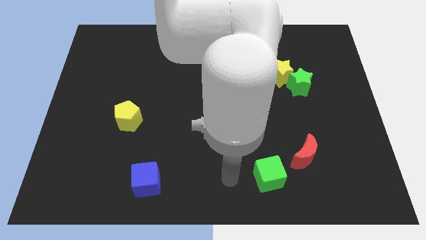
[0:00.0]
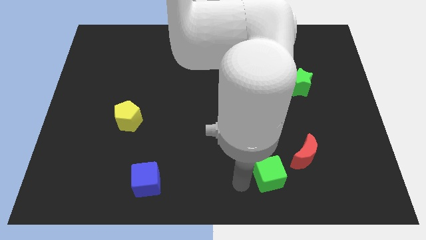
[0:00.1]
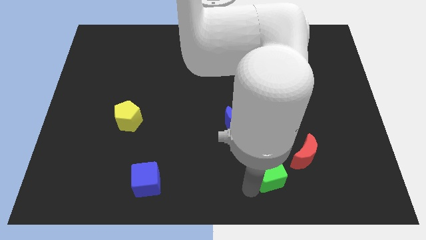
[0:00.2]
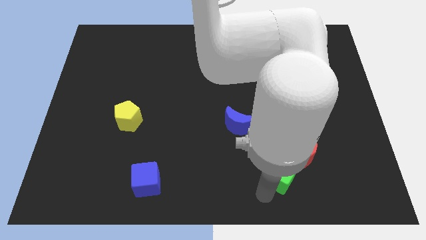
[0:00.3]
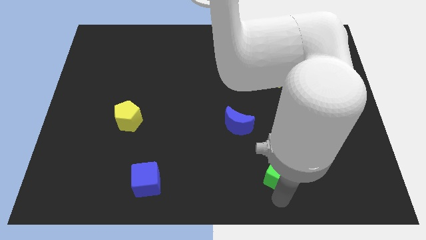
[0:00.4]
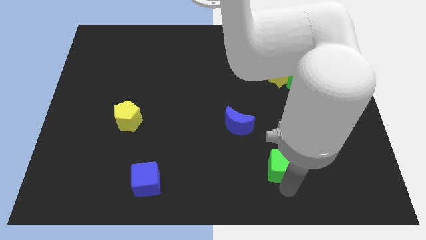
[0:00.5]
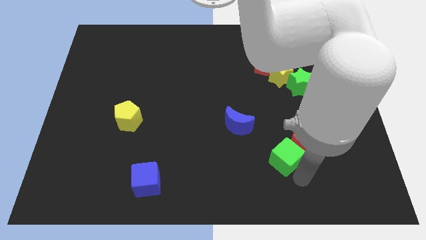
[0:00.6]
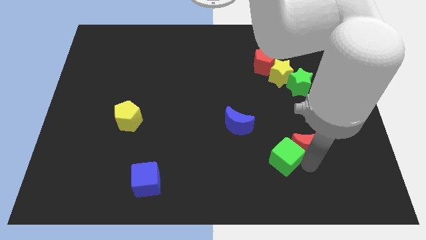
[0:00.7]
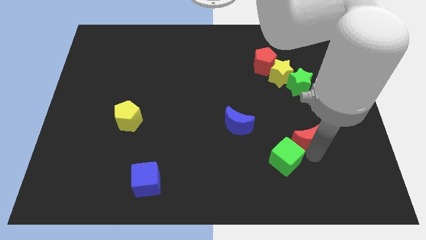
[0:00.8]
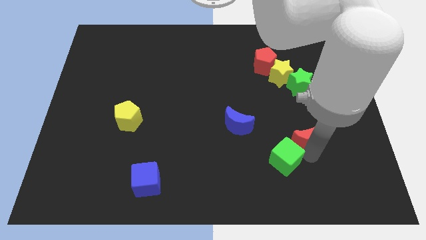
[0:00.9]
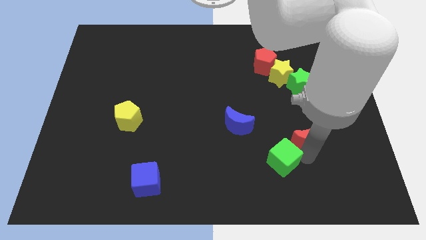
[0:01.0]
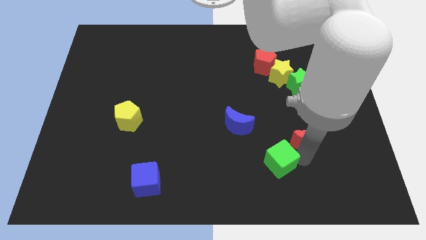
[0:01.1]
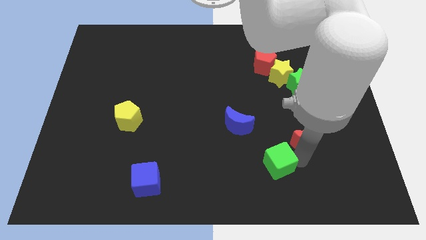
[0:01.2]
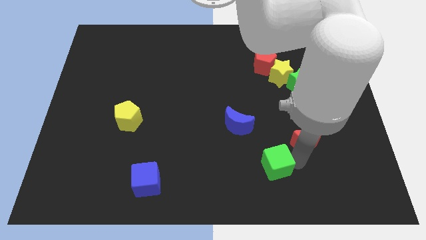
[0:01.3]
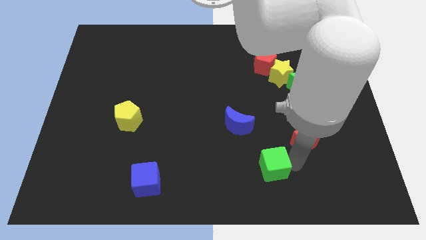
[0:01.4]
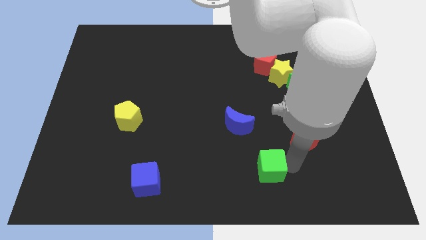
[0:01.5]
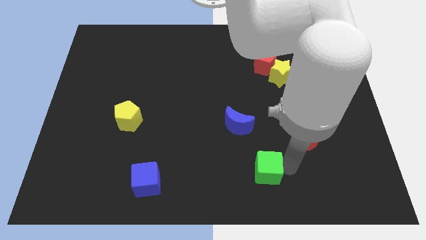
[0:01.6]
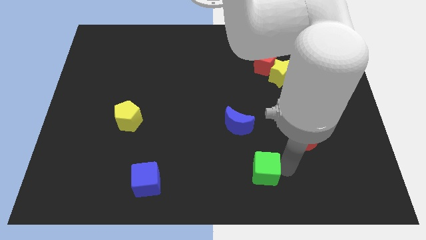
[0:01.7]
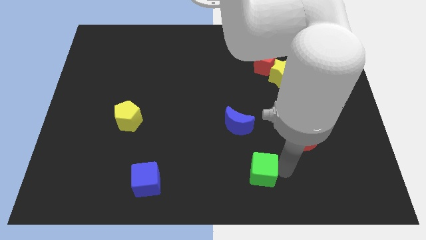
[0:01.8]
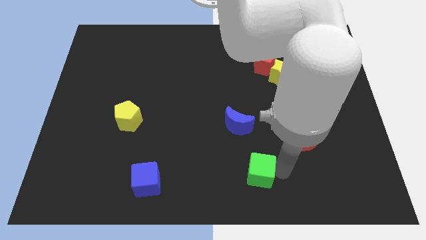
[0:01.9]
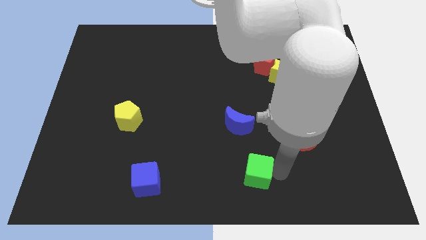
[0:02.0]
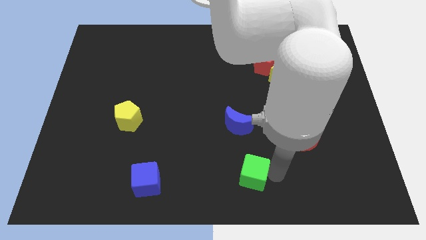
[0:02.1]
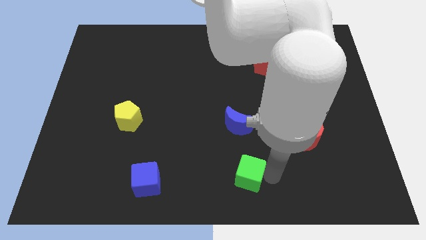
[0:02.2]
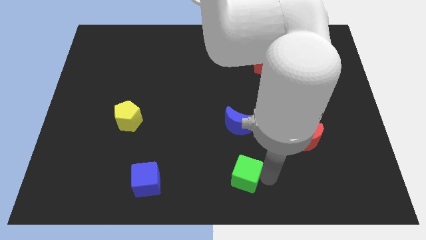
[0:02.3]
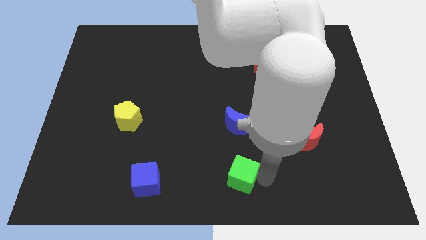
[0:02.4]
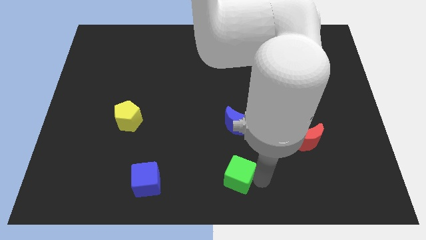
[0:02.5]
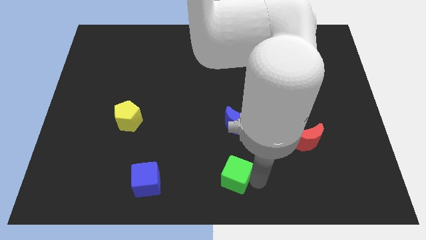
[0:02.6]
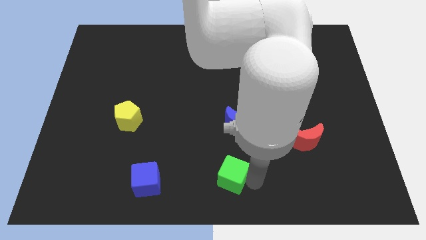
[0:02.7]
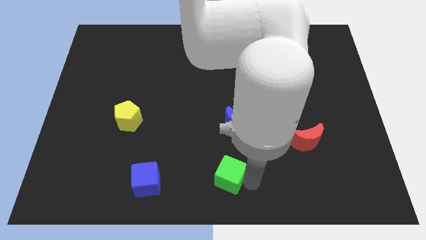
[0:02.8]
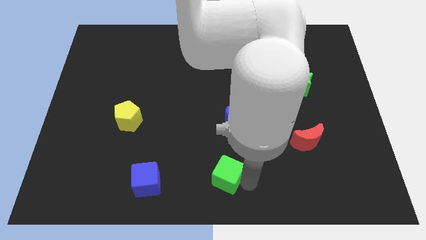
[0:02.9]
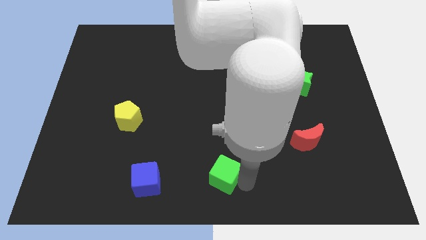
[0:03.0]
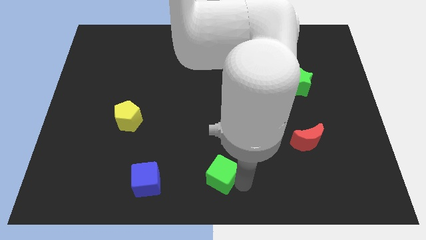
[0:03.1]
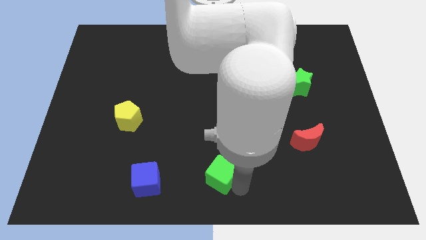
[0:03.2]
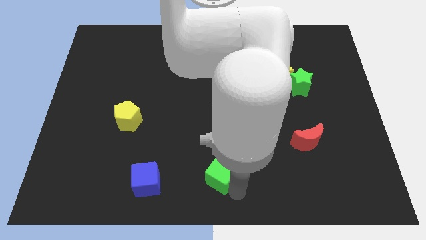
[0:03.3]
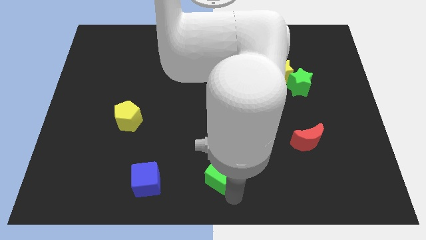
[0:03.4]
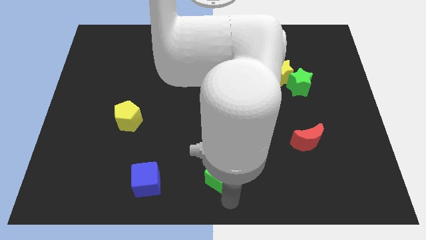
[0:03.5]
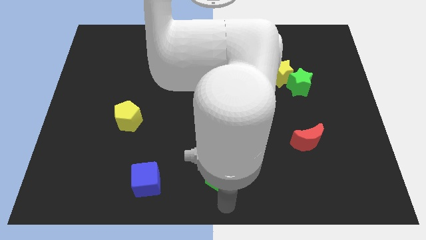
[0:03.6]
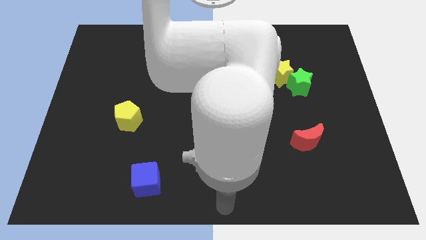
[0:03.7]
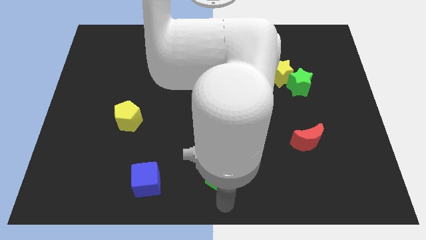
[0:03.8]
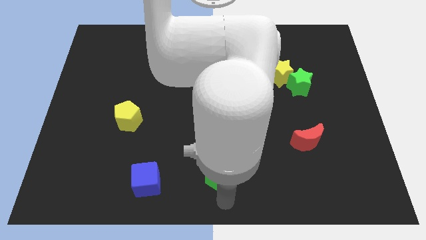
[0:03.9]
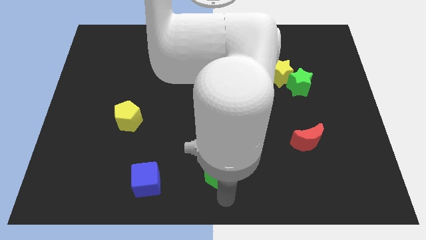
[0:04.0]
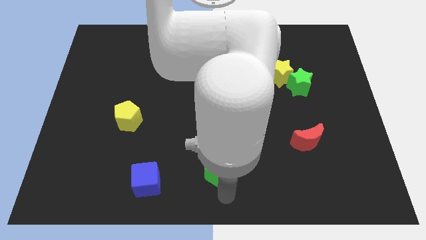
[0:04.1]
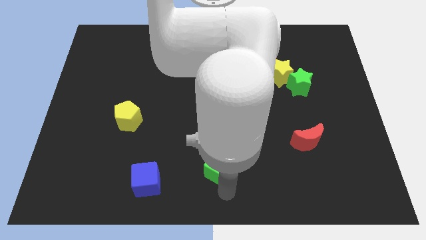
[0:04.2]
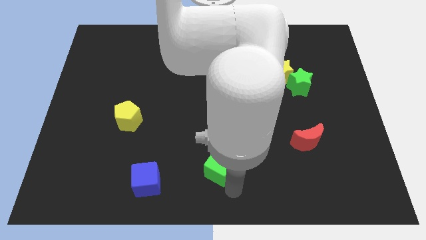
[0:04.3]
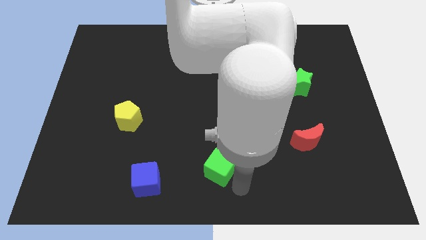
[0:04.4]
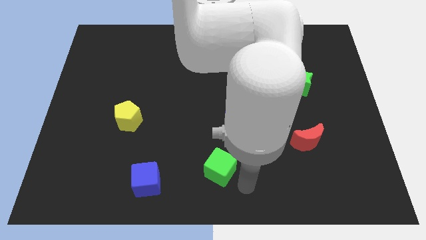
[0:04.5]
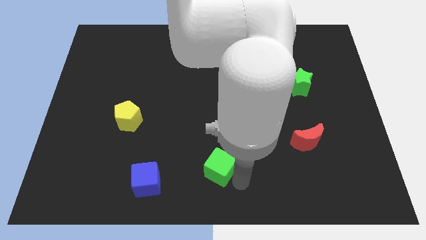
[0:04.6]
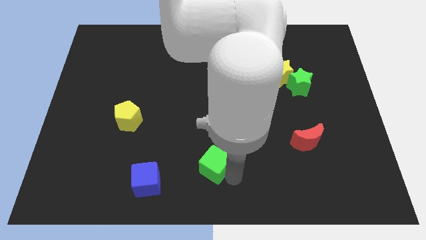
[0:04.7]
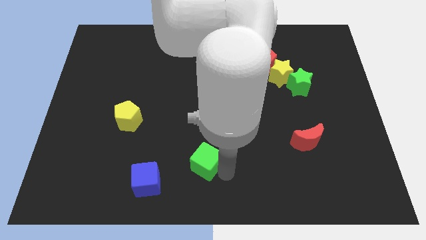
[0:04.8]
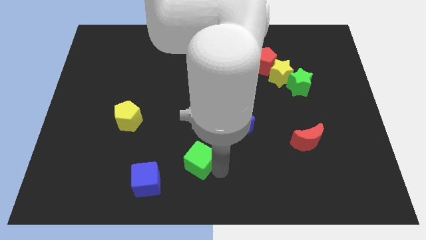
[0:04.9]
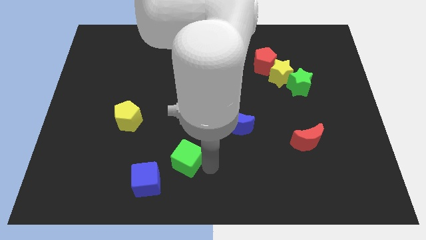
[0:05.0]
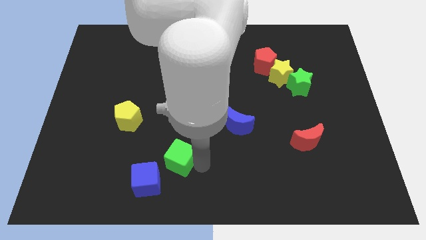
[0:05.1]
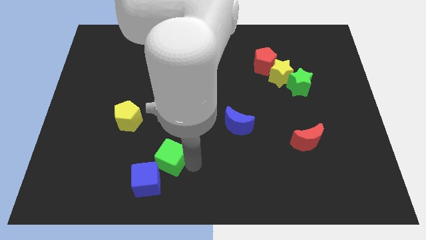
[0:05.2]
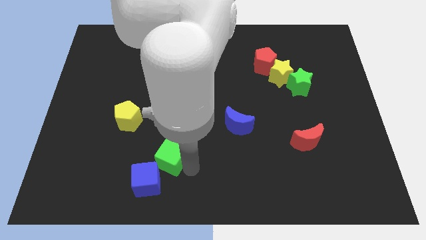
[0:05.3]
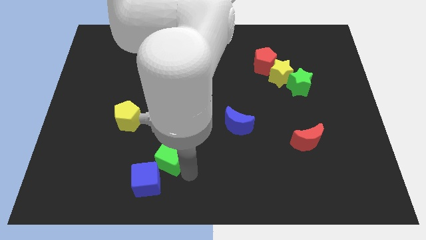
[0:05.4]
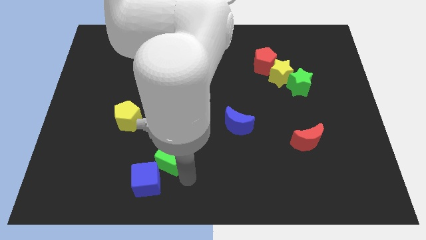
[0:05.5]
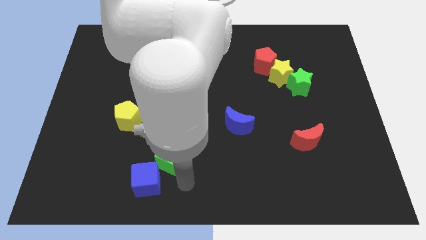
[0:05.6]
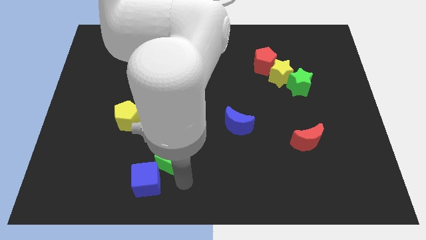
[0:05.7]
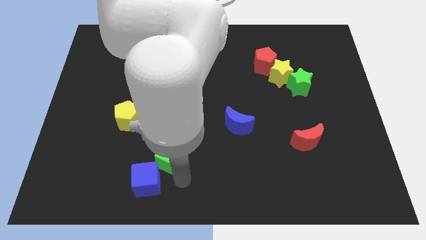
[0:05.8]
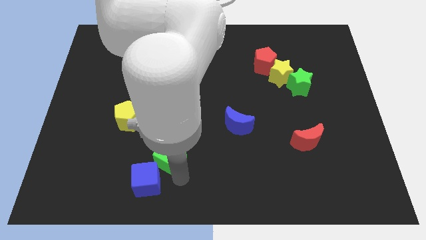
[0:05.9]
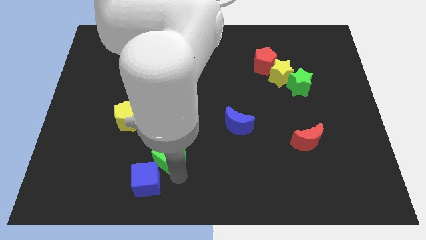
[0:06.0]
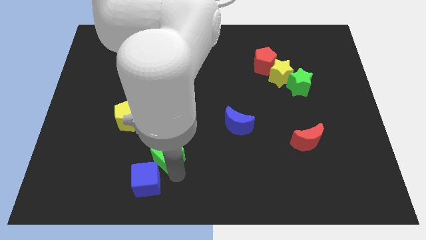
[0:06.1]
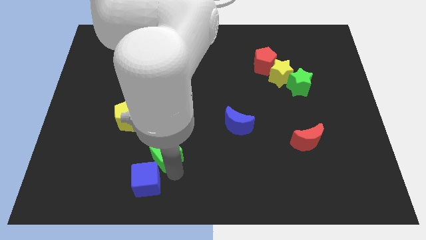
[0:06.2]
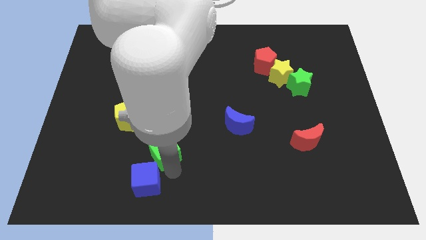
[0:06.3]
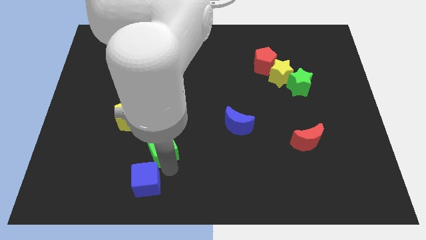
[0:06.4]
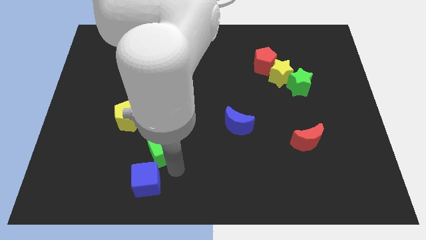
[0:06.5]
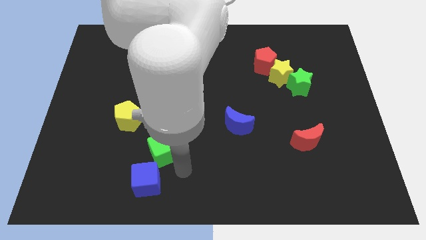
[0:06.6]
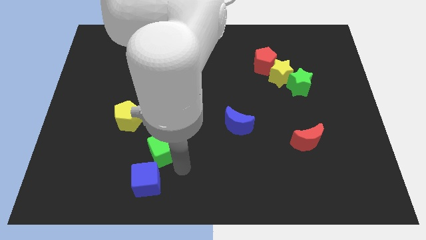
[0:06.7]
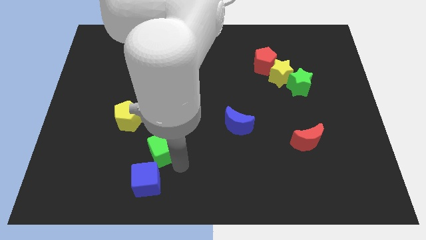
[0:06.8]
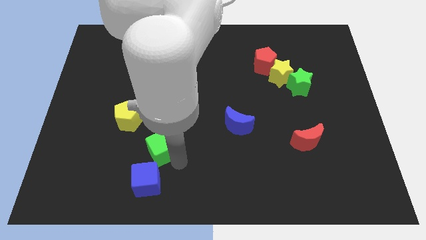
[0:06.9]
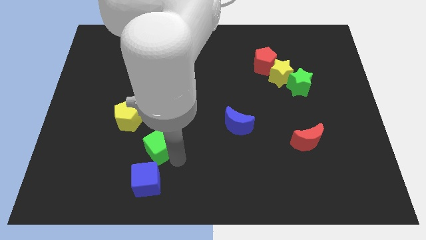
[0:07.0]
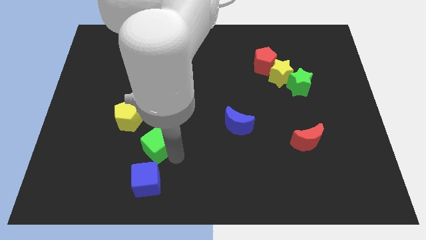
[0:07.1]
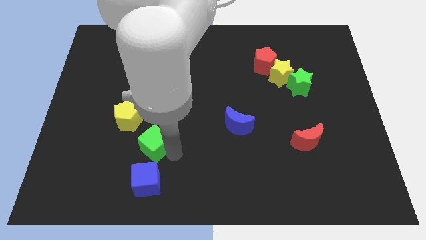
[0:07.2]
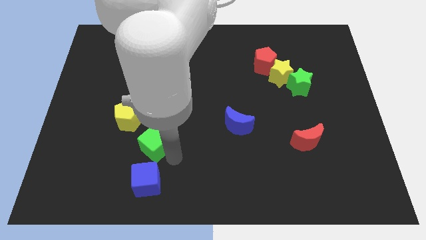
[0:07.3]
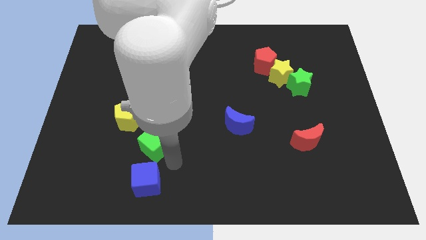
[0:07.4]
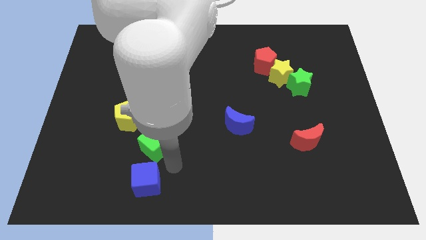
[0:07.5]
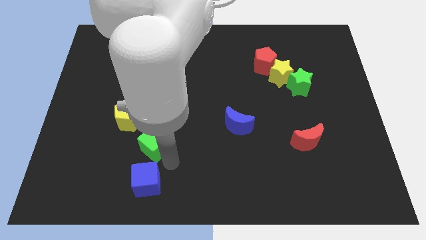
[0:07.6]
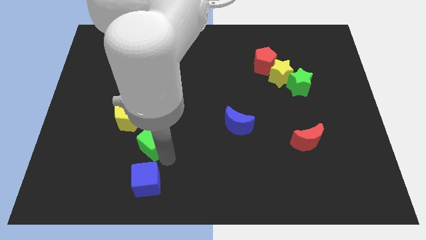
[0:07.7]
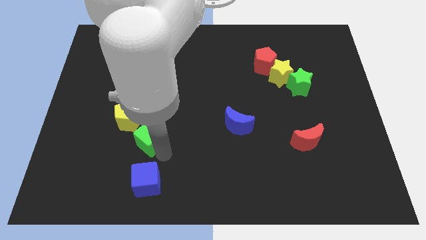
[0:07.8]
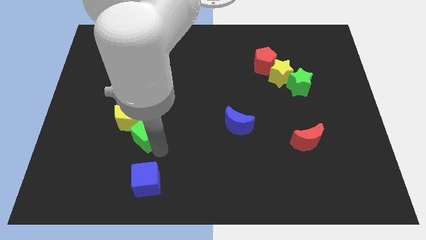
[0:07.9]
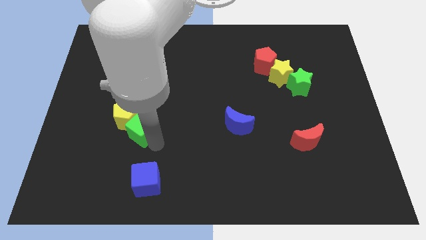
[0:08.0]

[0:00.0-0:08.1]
put the green cube to the yellow pentagon
